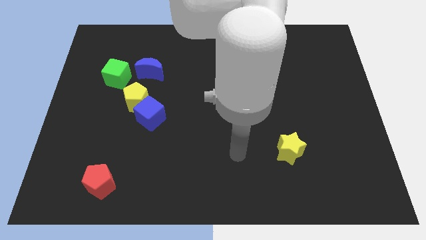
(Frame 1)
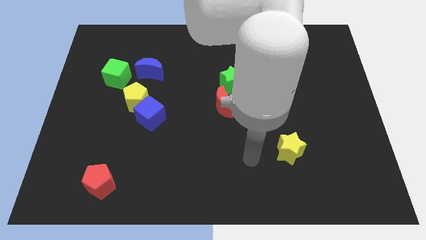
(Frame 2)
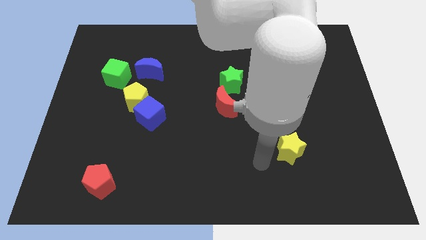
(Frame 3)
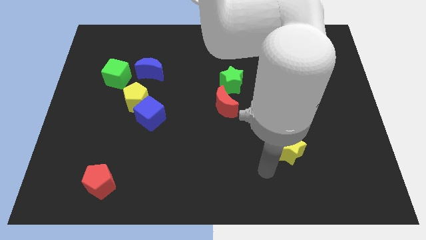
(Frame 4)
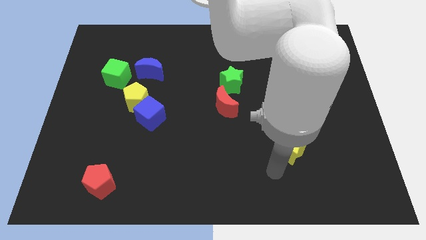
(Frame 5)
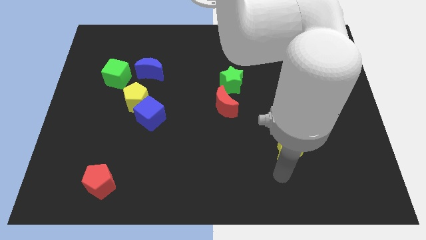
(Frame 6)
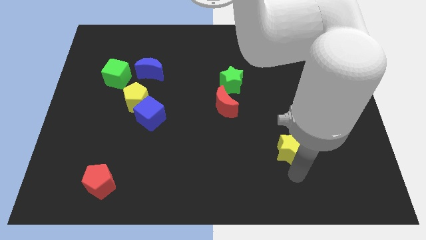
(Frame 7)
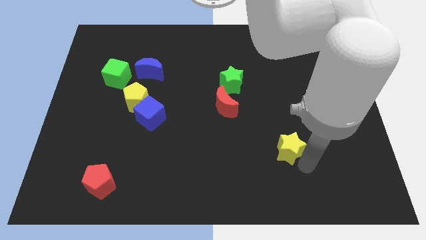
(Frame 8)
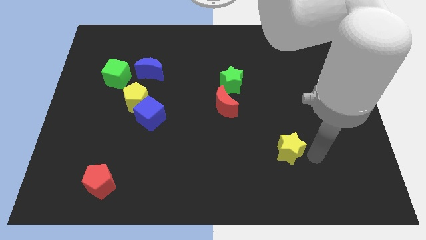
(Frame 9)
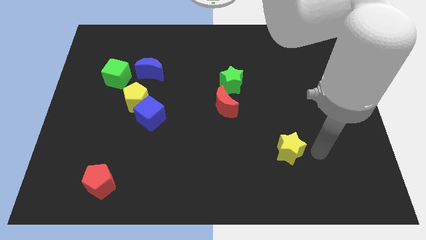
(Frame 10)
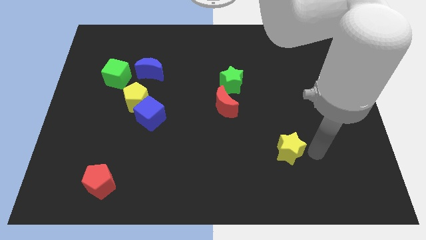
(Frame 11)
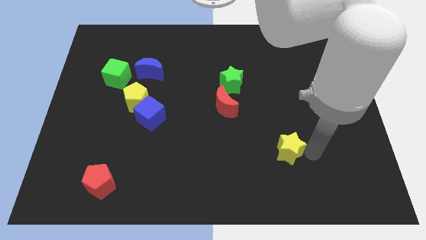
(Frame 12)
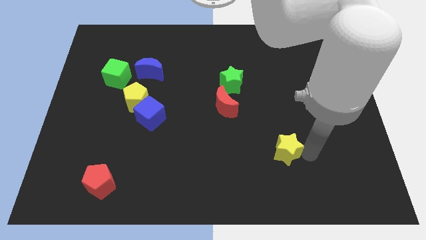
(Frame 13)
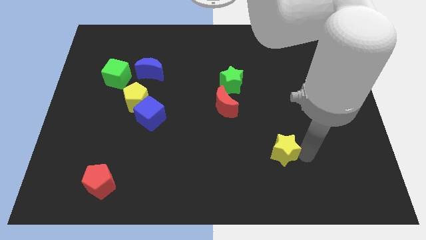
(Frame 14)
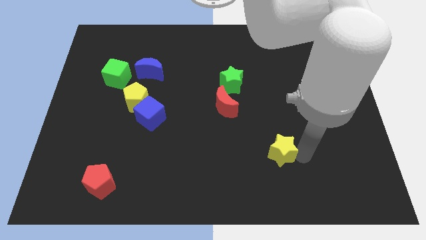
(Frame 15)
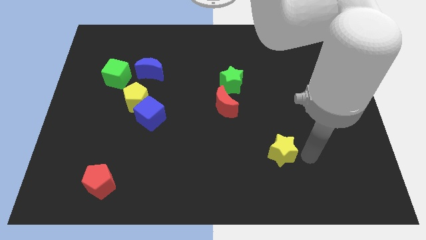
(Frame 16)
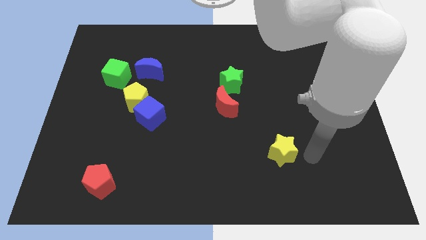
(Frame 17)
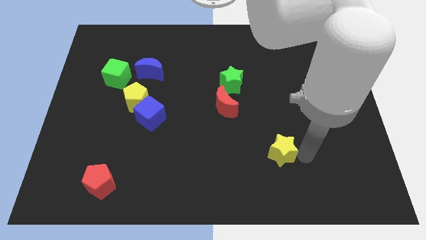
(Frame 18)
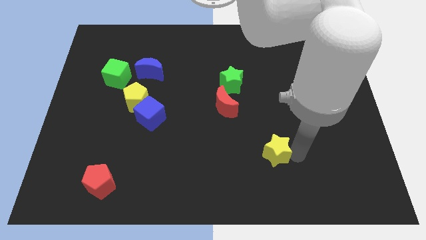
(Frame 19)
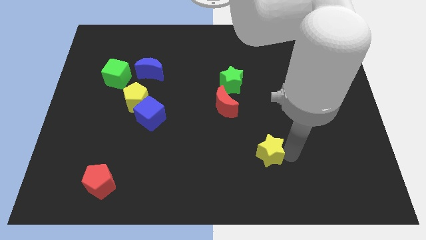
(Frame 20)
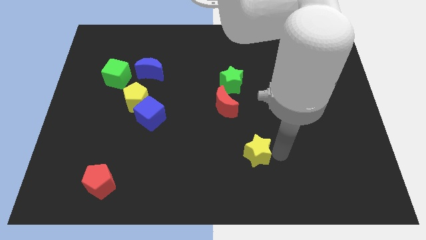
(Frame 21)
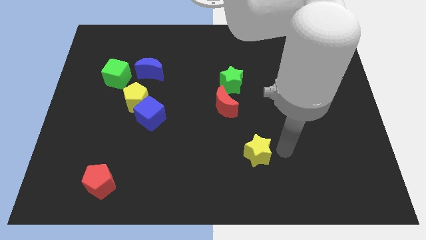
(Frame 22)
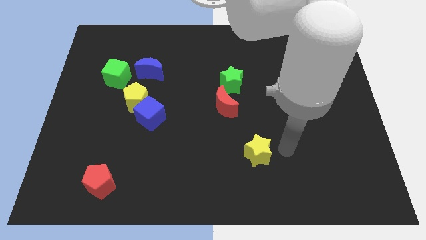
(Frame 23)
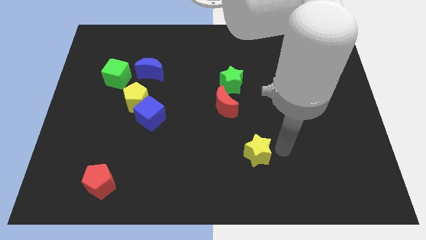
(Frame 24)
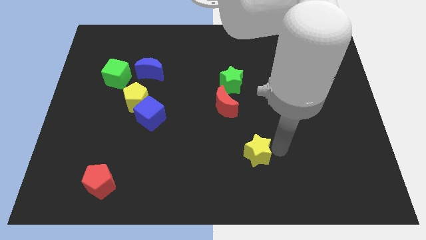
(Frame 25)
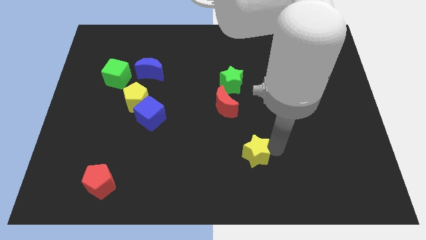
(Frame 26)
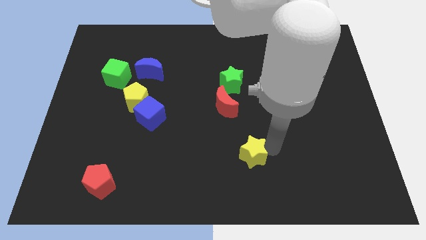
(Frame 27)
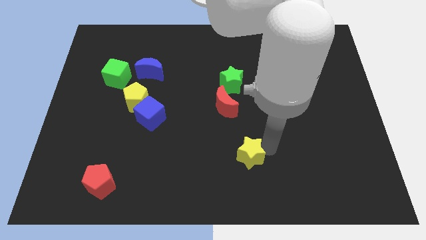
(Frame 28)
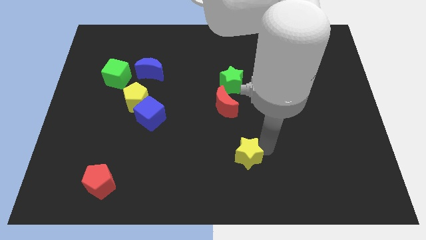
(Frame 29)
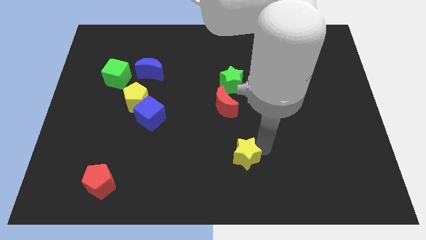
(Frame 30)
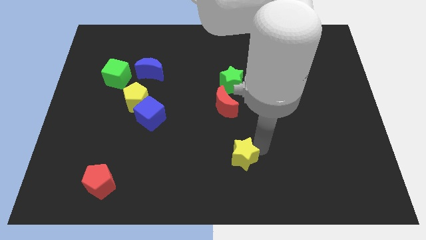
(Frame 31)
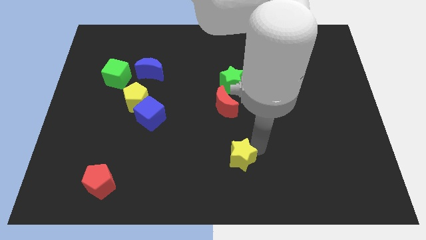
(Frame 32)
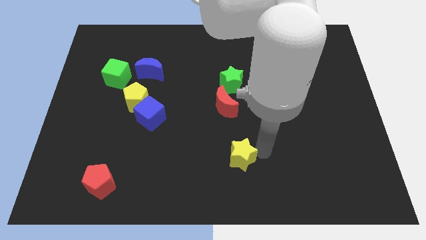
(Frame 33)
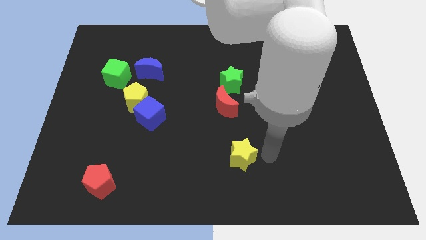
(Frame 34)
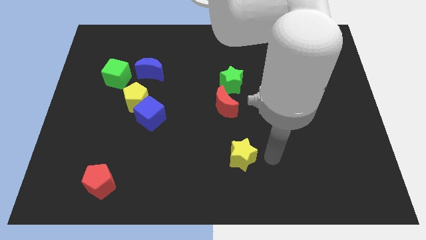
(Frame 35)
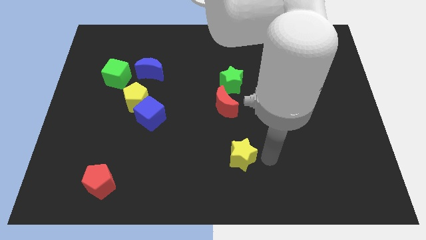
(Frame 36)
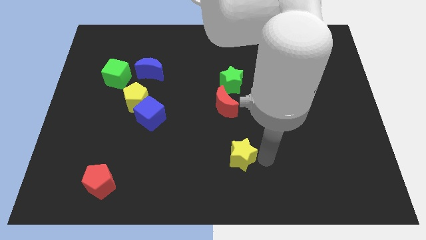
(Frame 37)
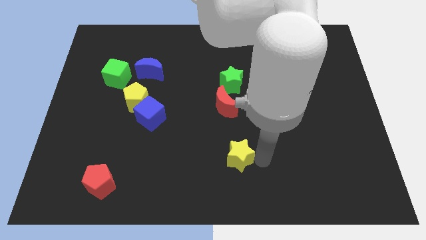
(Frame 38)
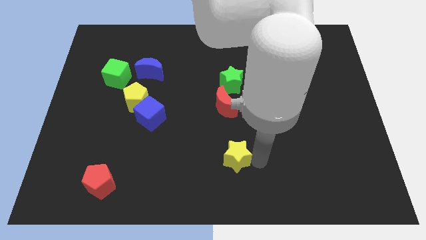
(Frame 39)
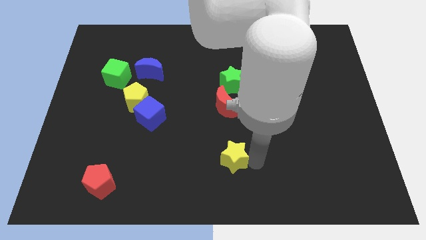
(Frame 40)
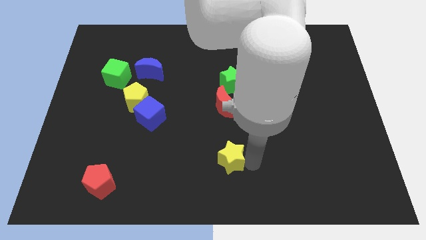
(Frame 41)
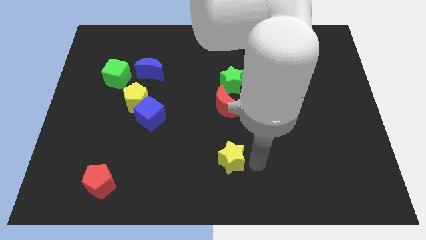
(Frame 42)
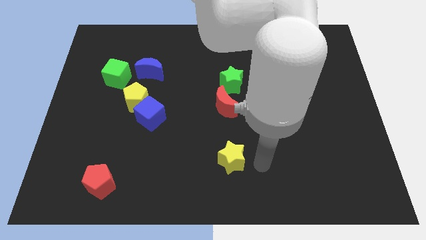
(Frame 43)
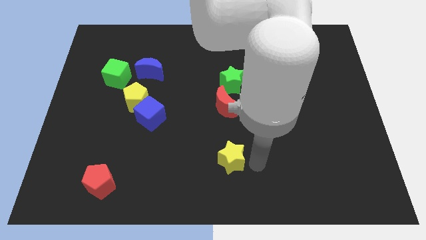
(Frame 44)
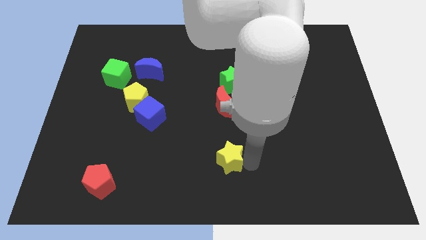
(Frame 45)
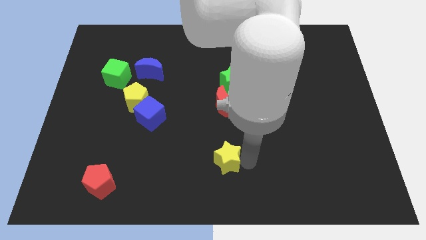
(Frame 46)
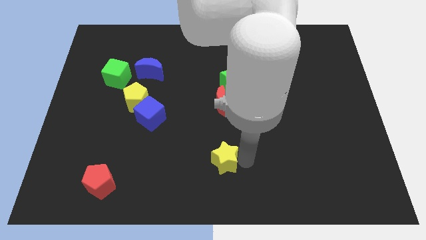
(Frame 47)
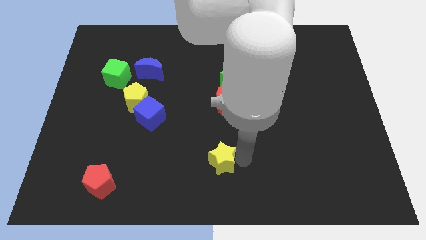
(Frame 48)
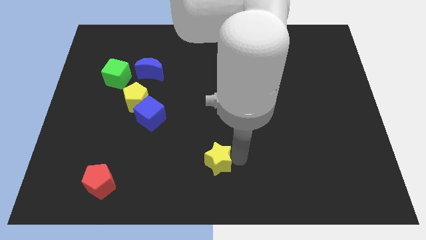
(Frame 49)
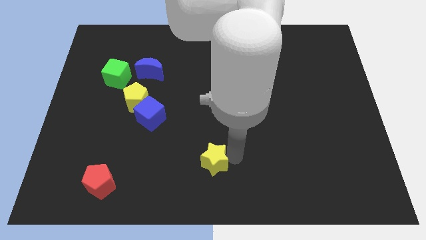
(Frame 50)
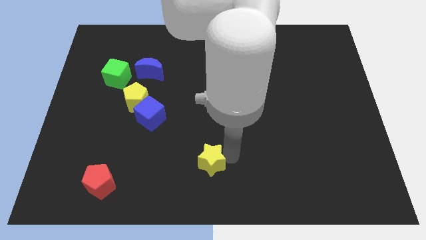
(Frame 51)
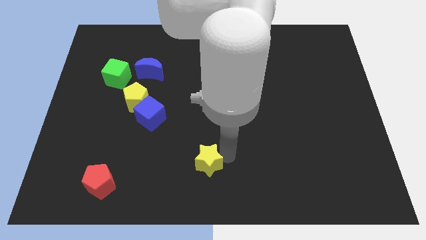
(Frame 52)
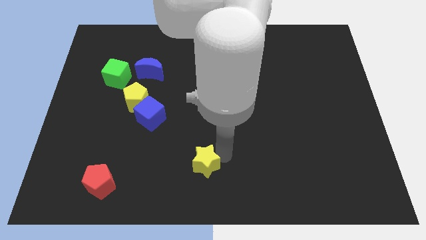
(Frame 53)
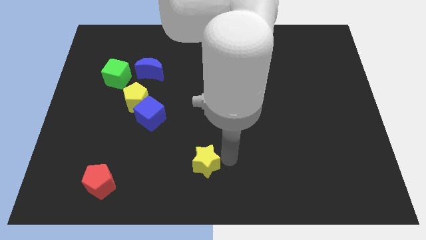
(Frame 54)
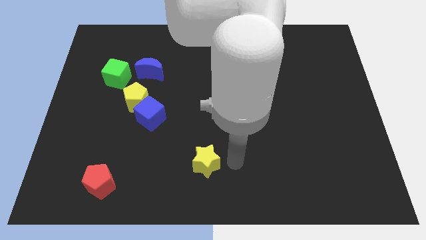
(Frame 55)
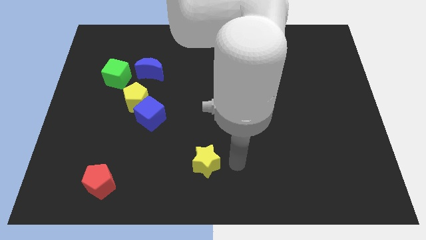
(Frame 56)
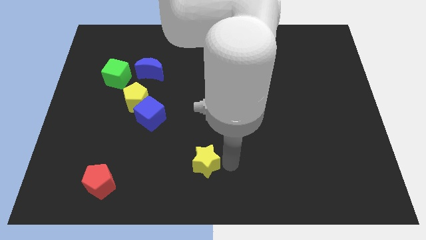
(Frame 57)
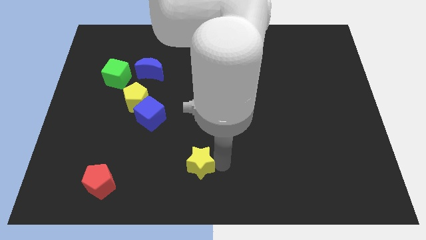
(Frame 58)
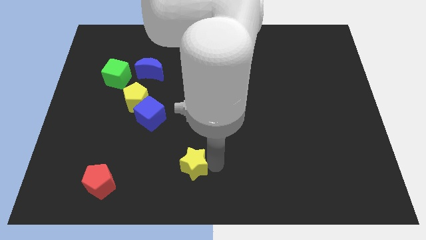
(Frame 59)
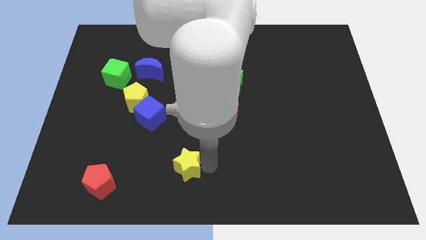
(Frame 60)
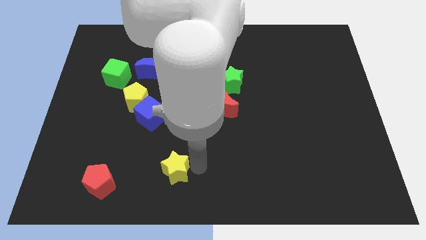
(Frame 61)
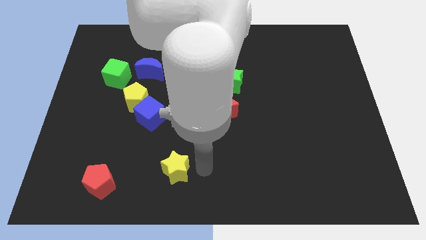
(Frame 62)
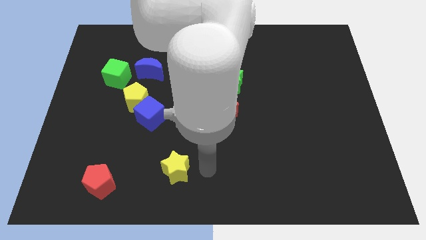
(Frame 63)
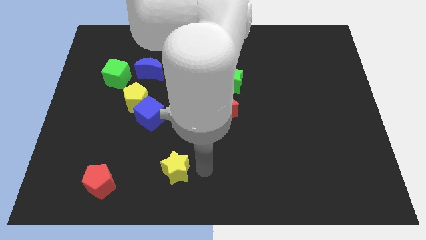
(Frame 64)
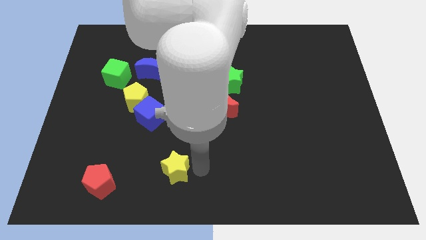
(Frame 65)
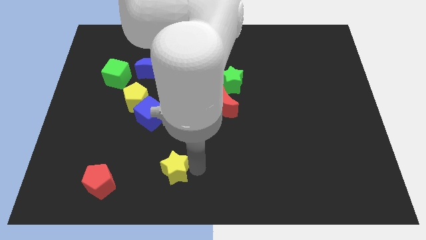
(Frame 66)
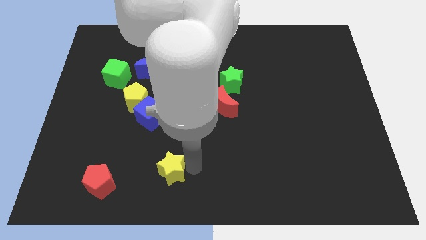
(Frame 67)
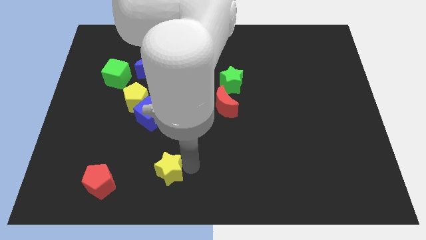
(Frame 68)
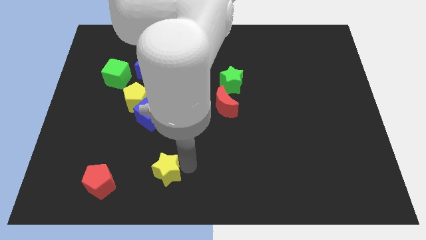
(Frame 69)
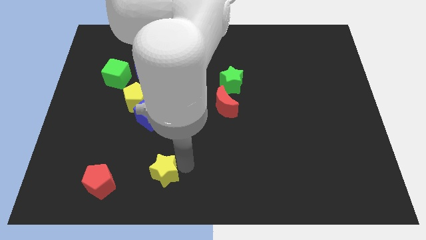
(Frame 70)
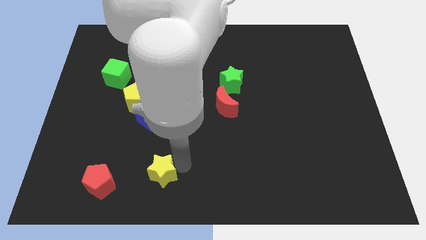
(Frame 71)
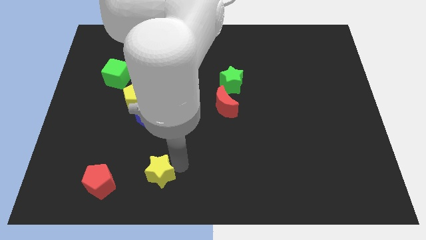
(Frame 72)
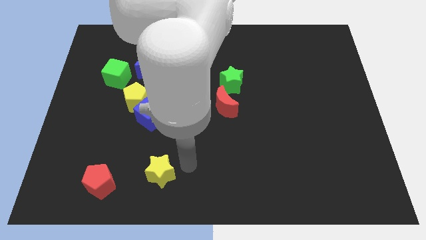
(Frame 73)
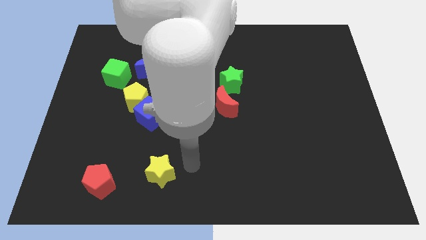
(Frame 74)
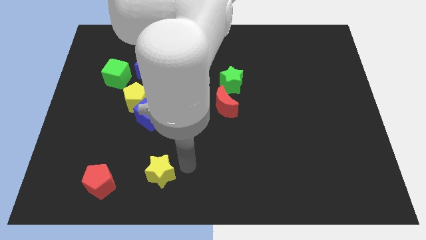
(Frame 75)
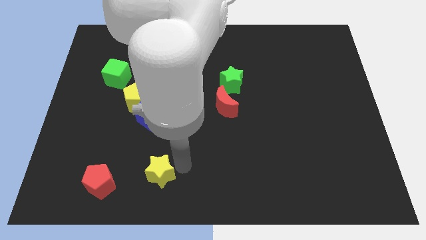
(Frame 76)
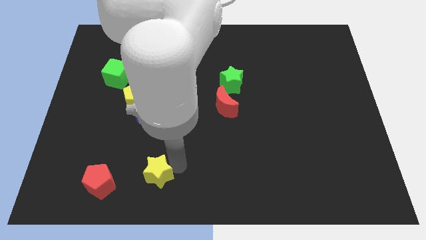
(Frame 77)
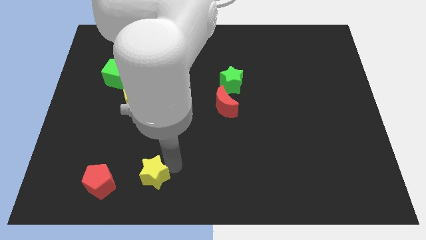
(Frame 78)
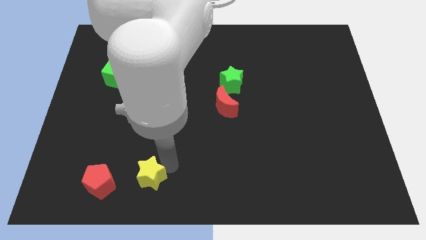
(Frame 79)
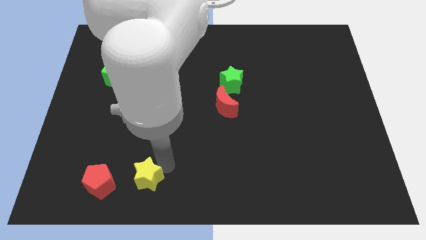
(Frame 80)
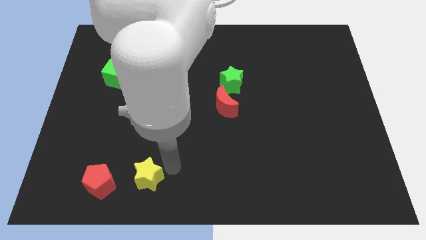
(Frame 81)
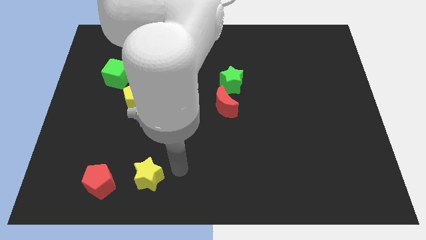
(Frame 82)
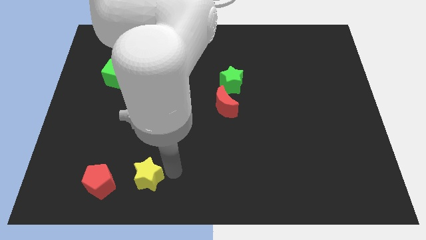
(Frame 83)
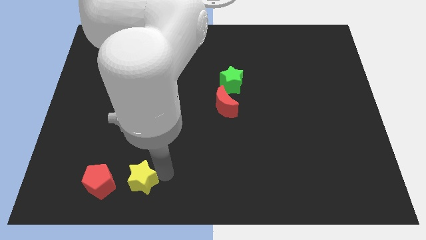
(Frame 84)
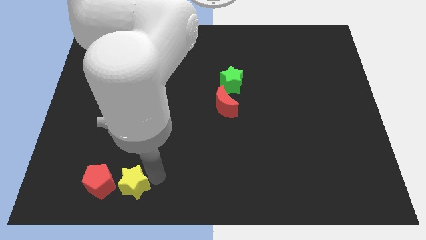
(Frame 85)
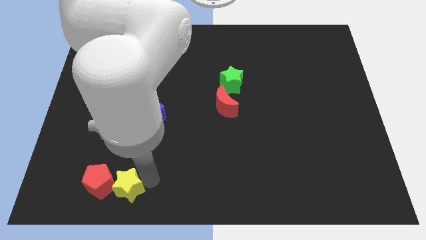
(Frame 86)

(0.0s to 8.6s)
move the yellow star next to the red pentagon
